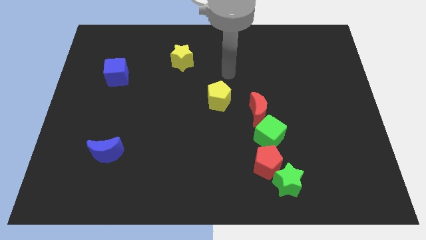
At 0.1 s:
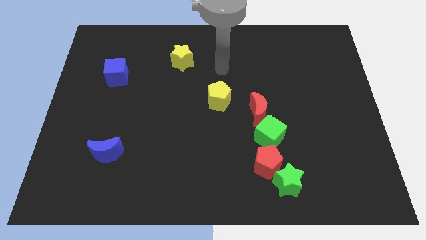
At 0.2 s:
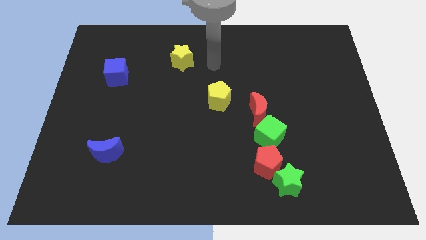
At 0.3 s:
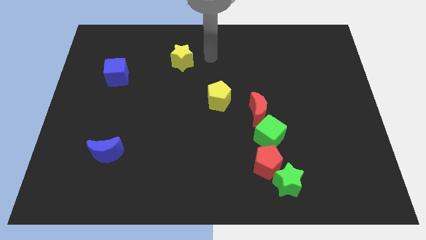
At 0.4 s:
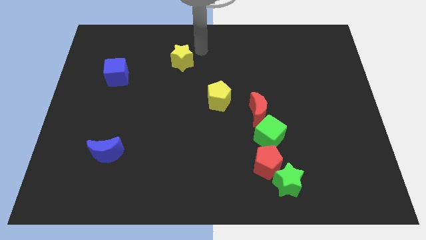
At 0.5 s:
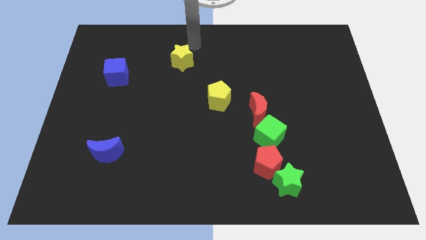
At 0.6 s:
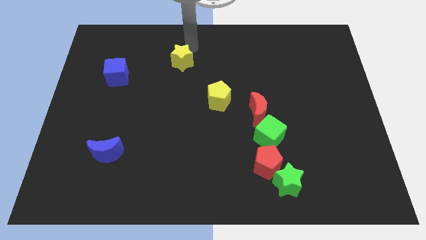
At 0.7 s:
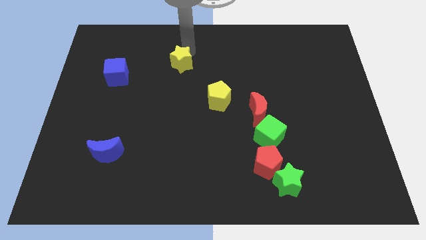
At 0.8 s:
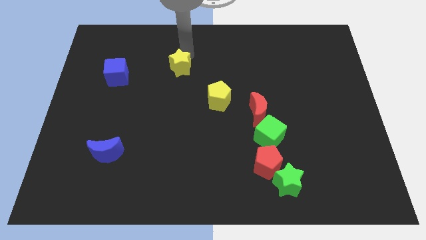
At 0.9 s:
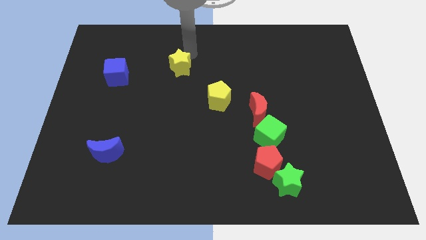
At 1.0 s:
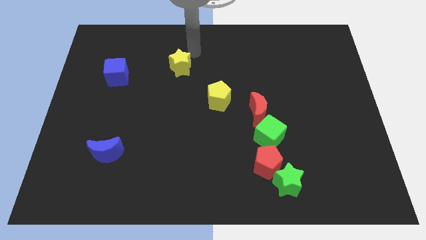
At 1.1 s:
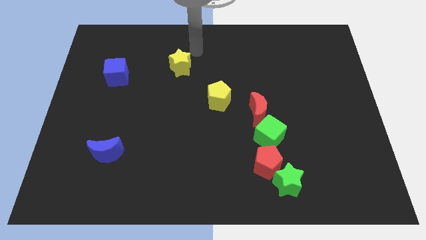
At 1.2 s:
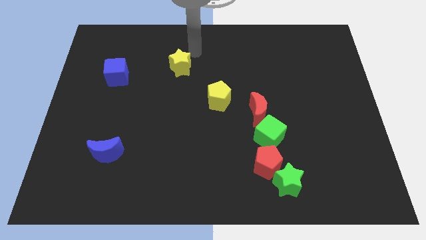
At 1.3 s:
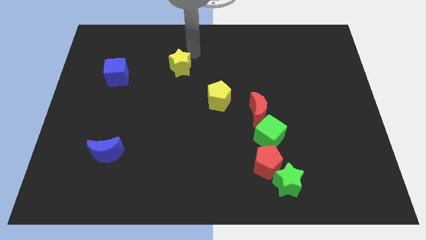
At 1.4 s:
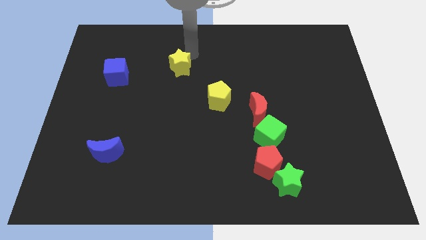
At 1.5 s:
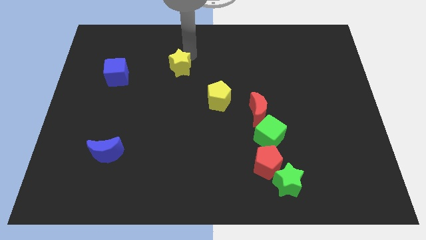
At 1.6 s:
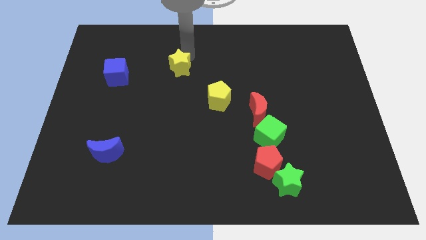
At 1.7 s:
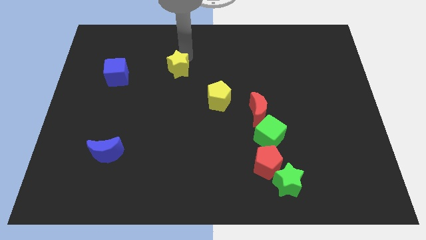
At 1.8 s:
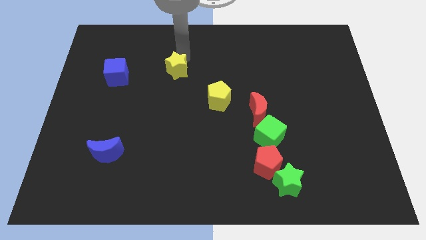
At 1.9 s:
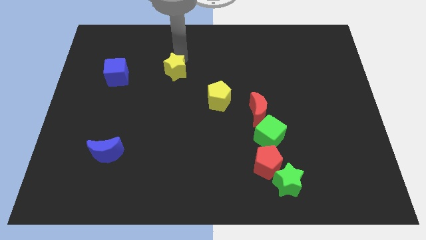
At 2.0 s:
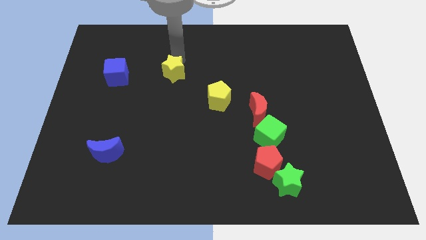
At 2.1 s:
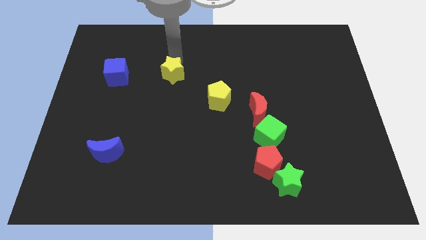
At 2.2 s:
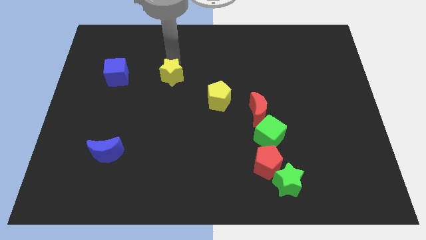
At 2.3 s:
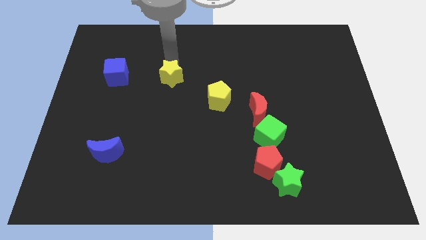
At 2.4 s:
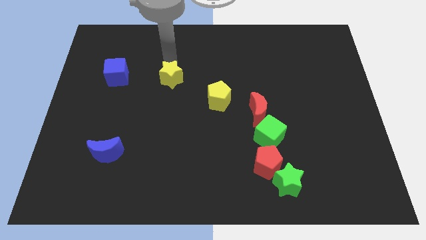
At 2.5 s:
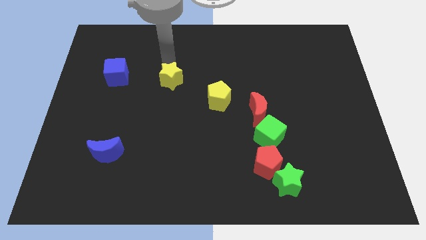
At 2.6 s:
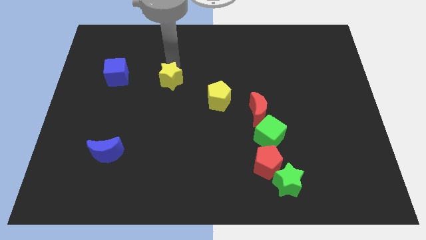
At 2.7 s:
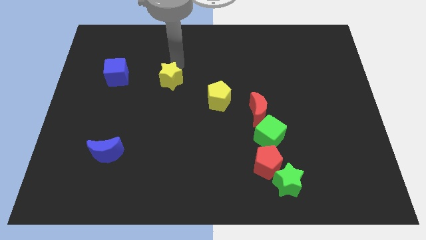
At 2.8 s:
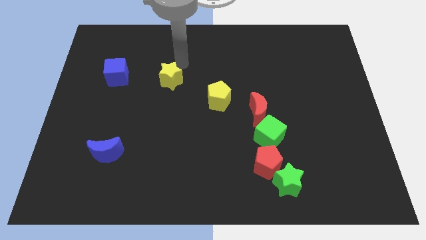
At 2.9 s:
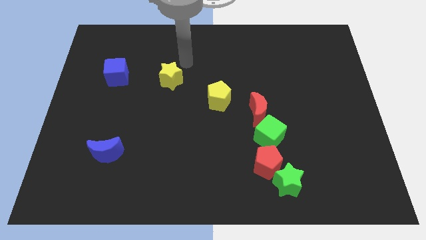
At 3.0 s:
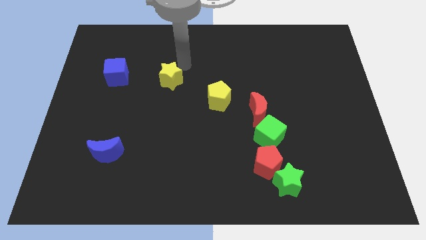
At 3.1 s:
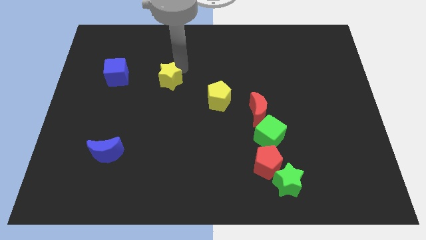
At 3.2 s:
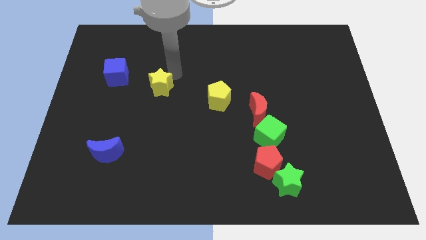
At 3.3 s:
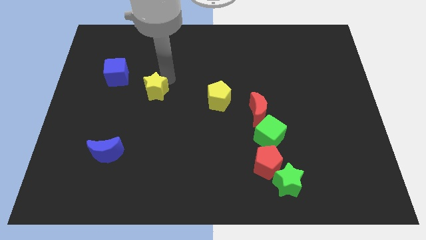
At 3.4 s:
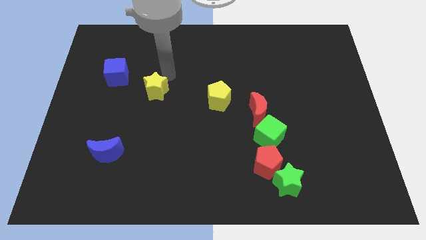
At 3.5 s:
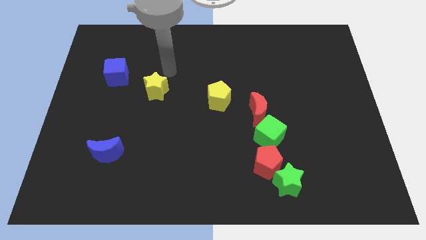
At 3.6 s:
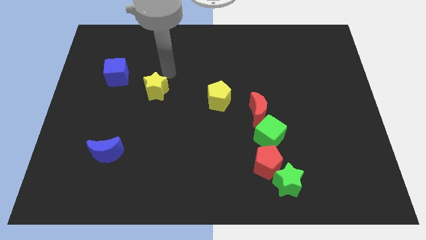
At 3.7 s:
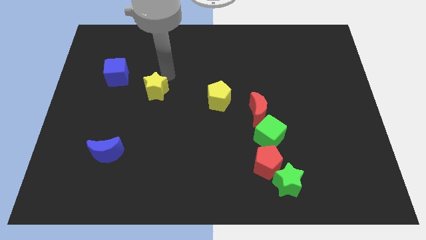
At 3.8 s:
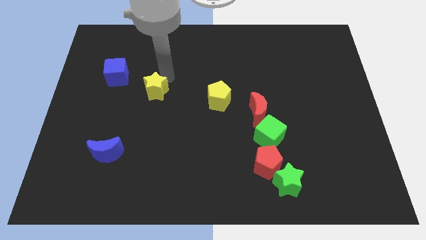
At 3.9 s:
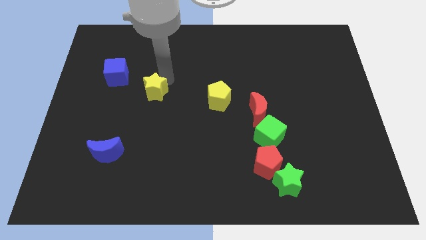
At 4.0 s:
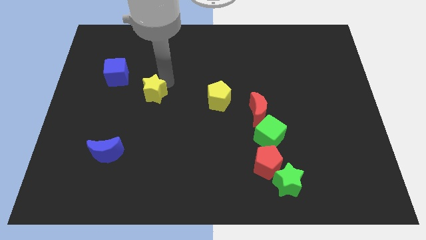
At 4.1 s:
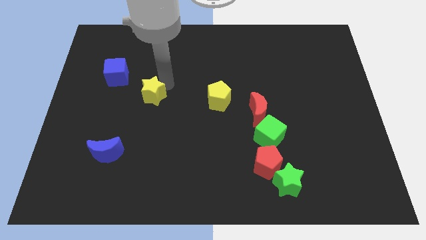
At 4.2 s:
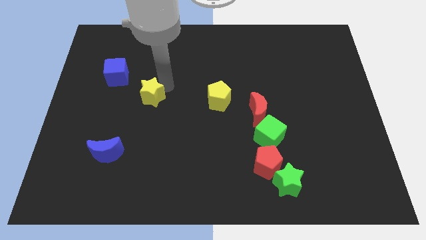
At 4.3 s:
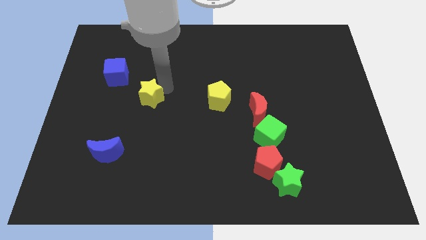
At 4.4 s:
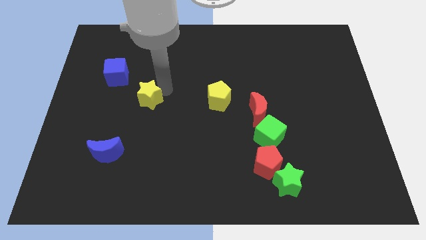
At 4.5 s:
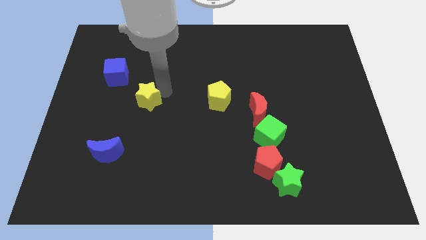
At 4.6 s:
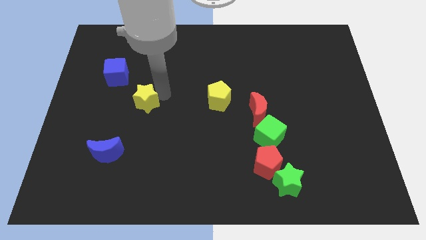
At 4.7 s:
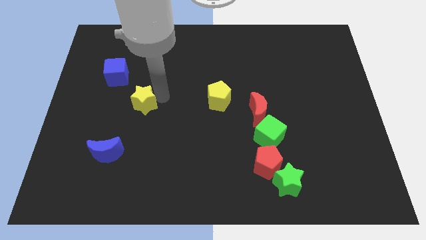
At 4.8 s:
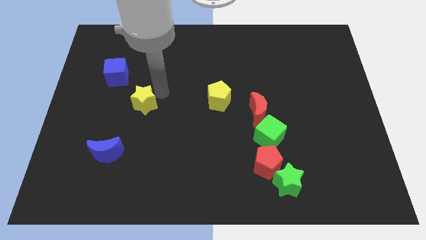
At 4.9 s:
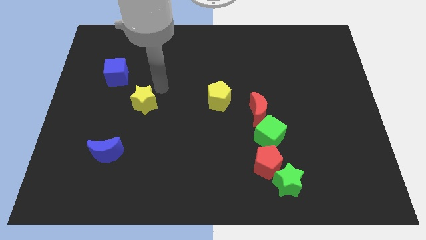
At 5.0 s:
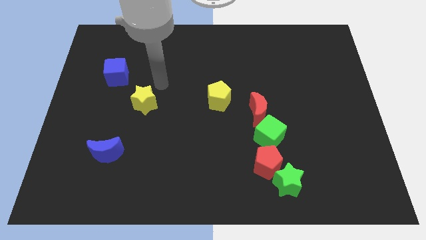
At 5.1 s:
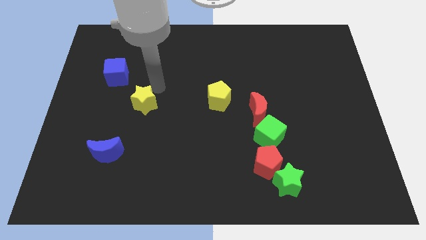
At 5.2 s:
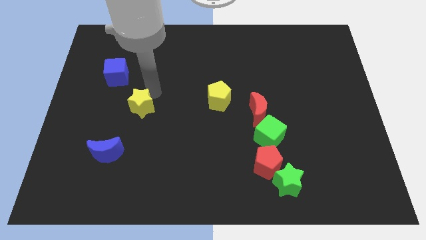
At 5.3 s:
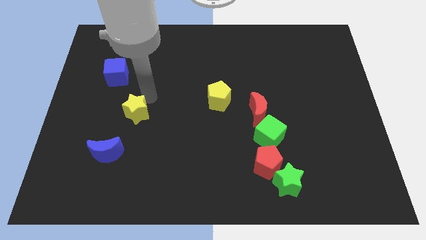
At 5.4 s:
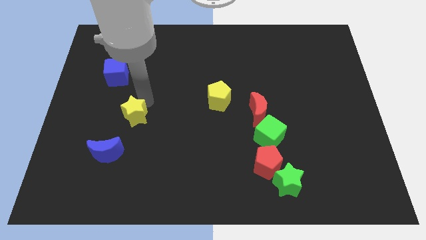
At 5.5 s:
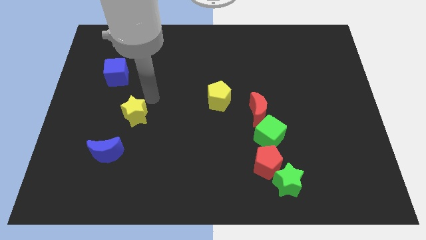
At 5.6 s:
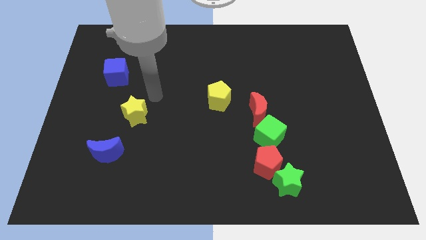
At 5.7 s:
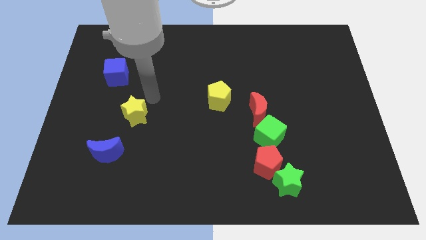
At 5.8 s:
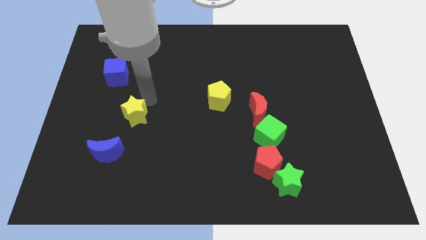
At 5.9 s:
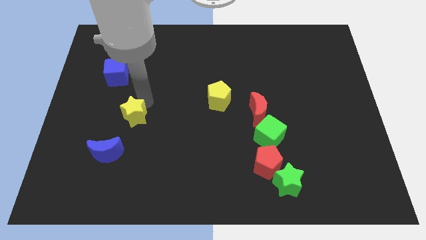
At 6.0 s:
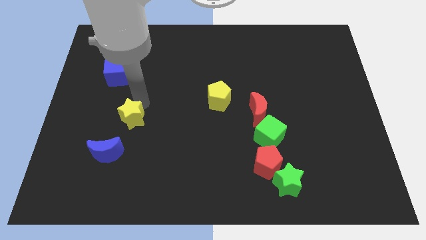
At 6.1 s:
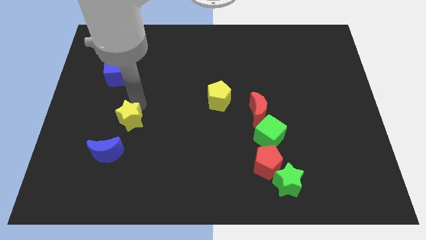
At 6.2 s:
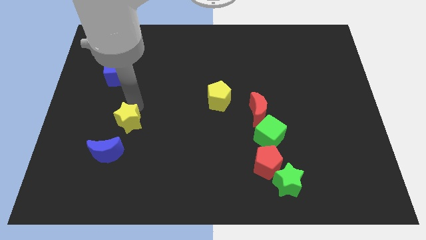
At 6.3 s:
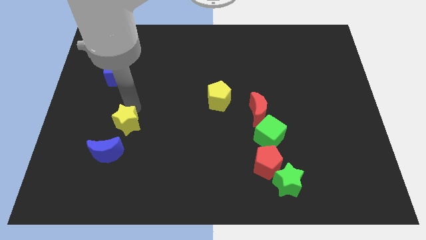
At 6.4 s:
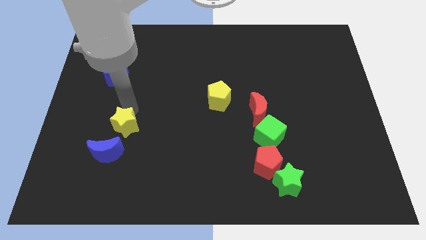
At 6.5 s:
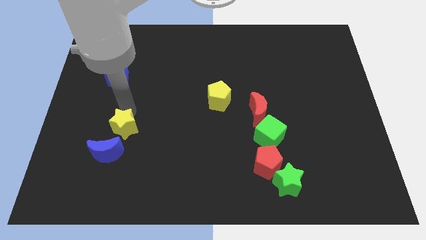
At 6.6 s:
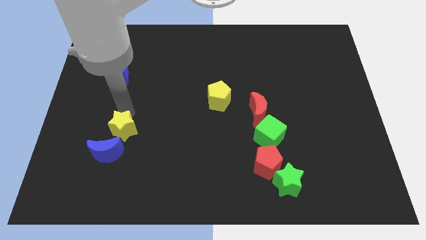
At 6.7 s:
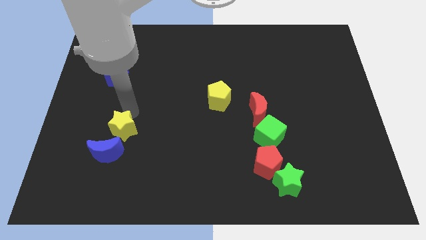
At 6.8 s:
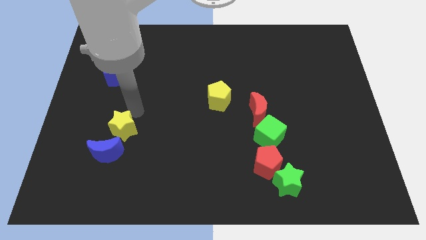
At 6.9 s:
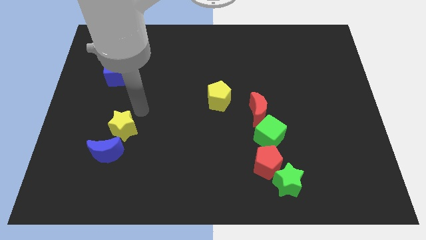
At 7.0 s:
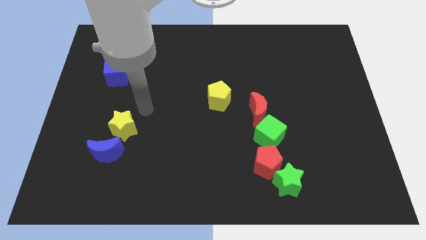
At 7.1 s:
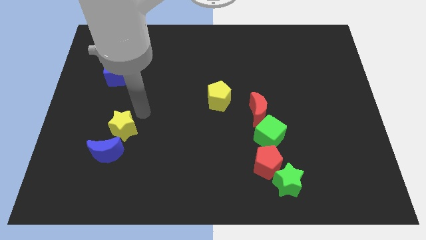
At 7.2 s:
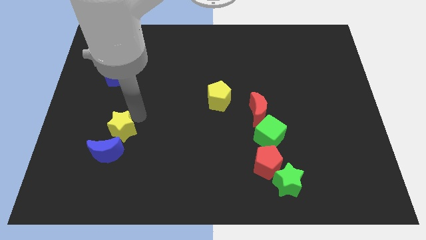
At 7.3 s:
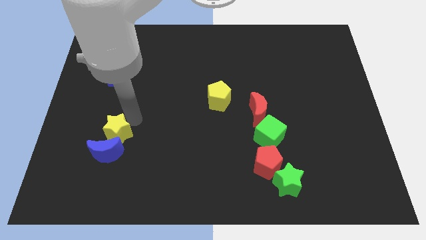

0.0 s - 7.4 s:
put the yellow star close to the blue moon
